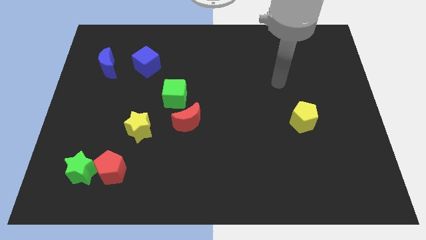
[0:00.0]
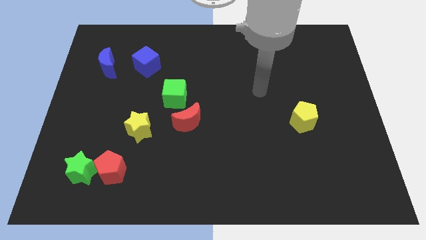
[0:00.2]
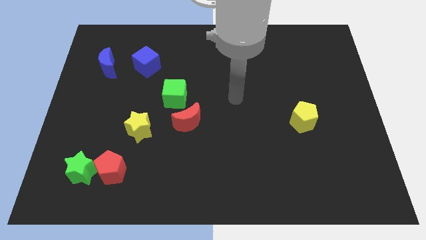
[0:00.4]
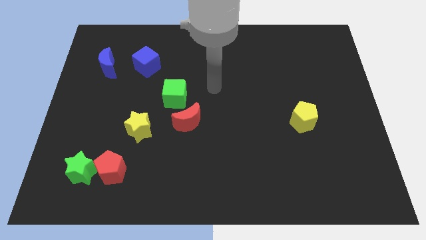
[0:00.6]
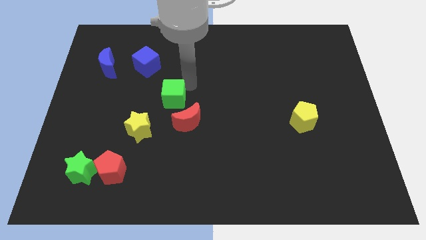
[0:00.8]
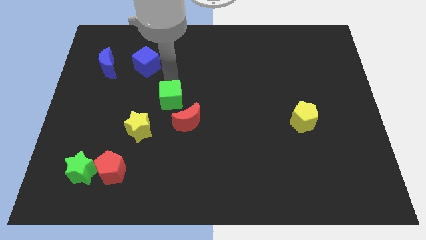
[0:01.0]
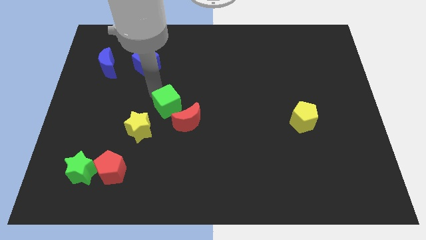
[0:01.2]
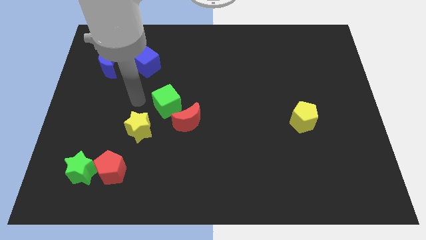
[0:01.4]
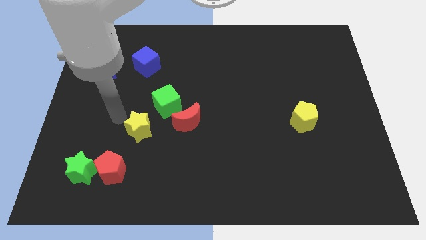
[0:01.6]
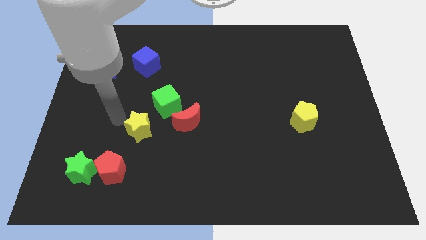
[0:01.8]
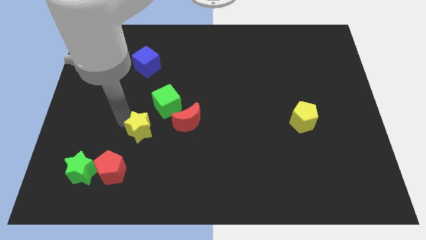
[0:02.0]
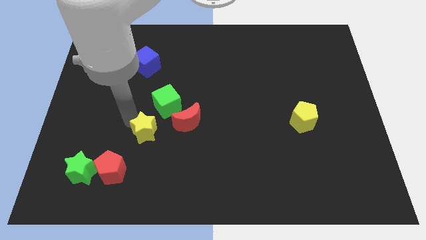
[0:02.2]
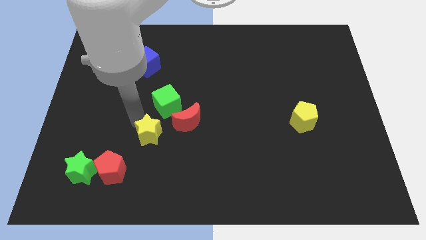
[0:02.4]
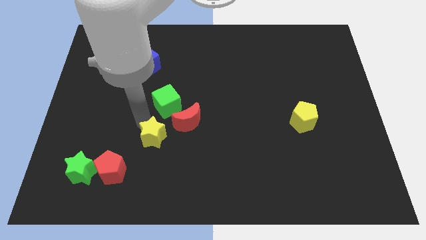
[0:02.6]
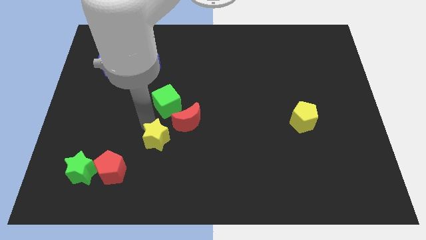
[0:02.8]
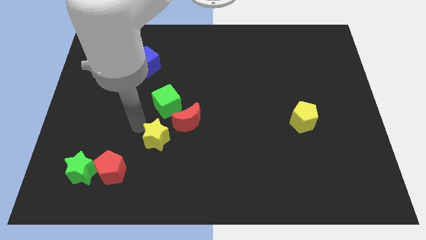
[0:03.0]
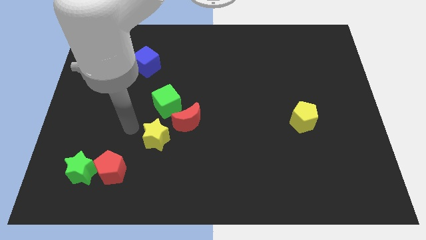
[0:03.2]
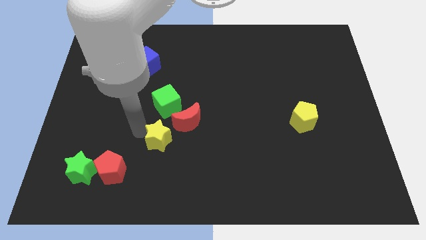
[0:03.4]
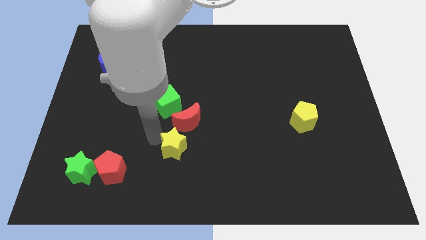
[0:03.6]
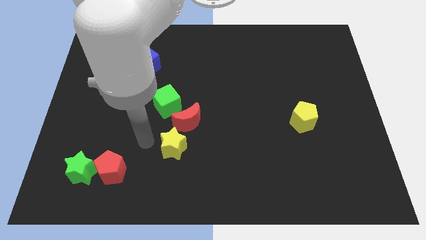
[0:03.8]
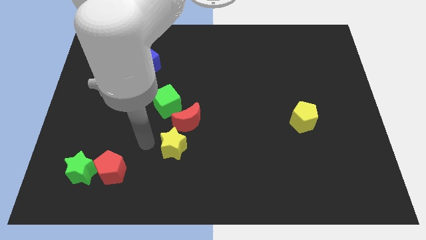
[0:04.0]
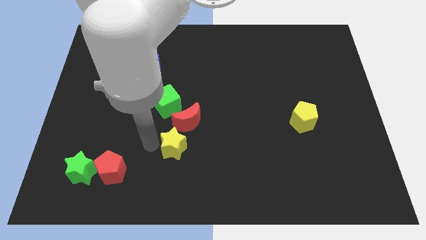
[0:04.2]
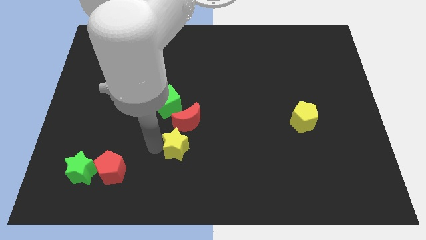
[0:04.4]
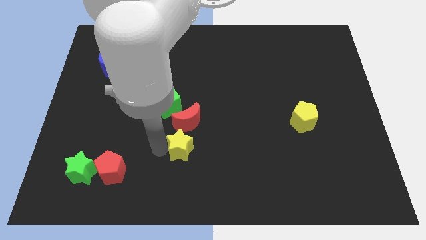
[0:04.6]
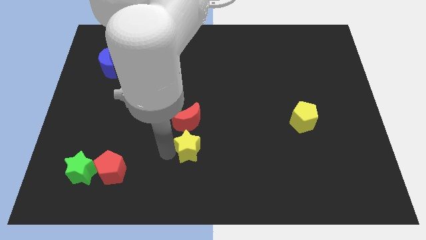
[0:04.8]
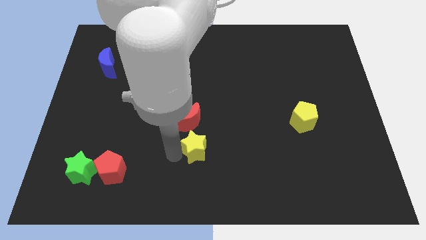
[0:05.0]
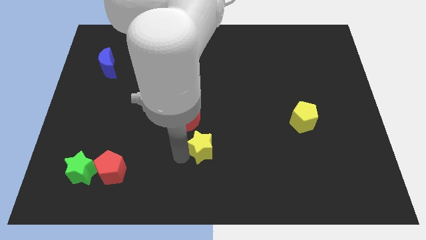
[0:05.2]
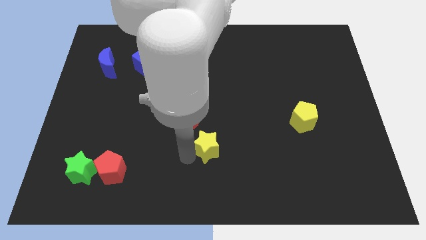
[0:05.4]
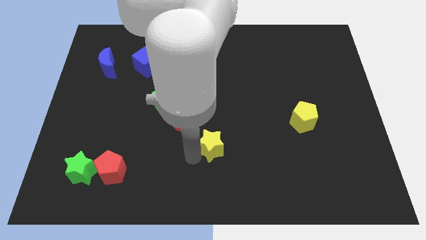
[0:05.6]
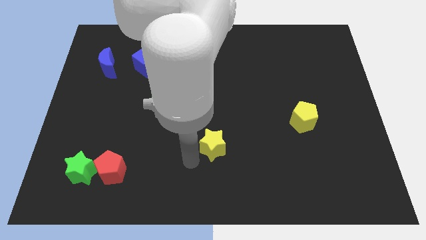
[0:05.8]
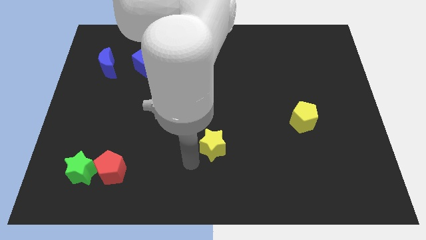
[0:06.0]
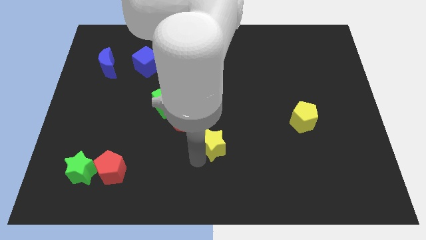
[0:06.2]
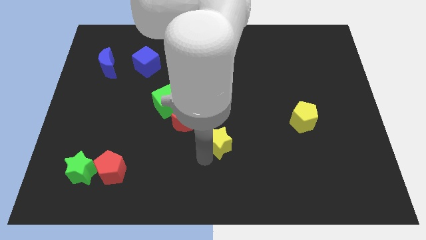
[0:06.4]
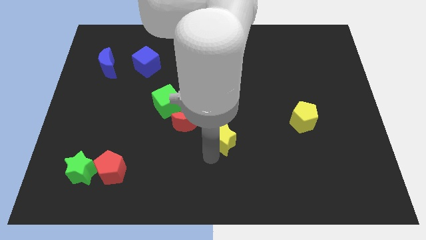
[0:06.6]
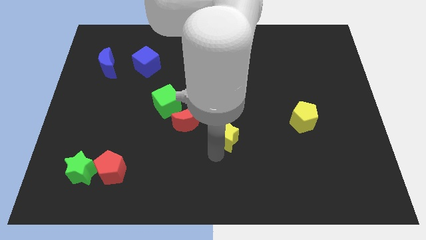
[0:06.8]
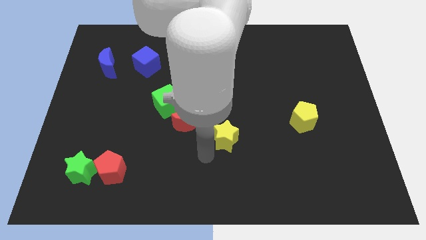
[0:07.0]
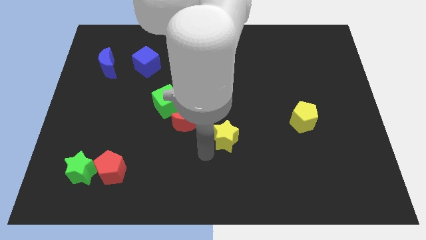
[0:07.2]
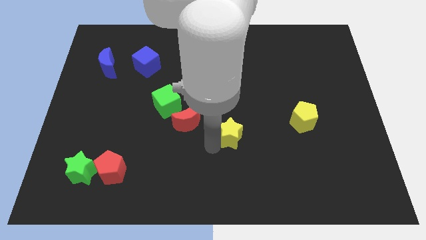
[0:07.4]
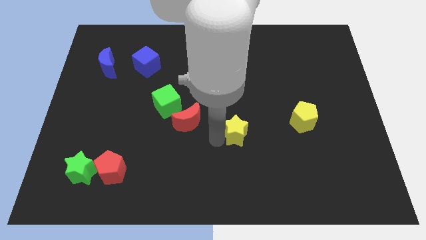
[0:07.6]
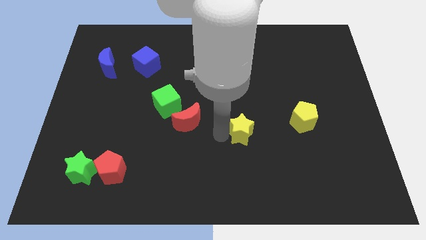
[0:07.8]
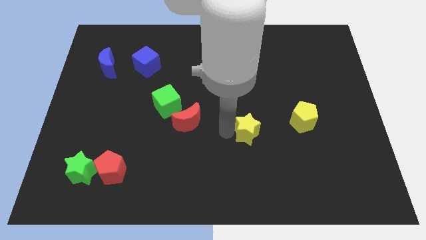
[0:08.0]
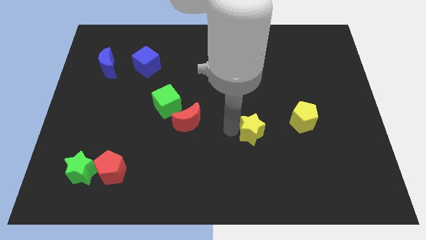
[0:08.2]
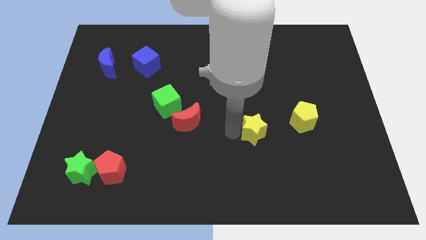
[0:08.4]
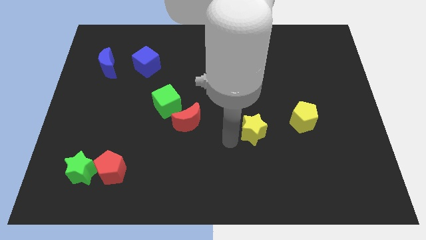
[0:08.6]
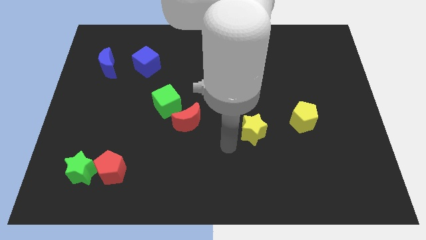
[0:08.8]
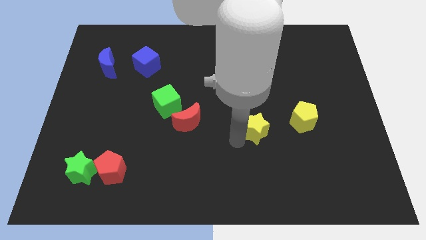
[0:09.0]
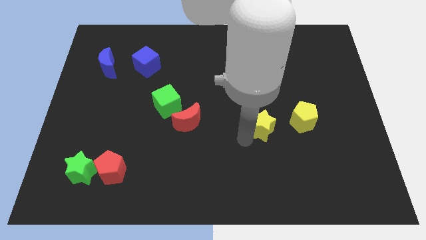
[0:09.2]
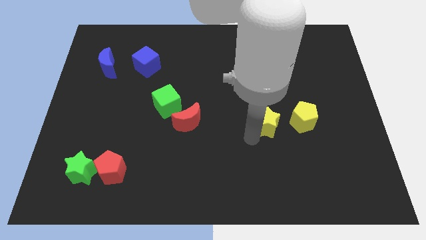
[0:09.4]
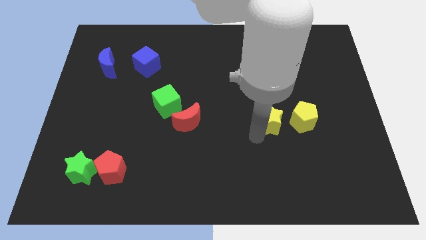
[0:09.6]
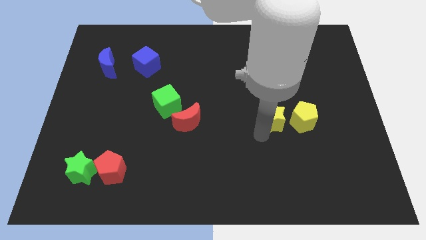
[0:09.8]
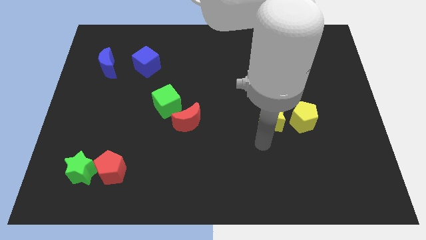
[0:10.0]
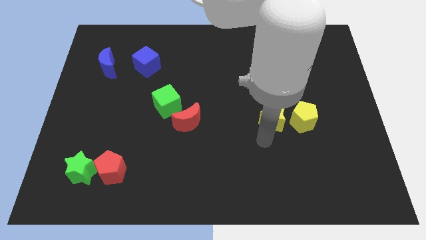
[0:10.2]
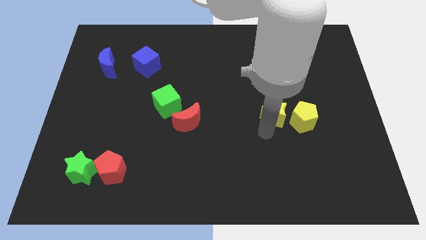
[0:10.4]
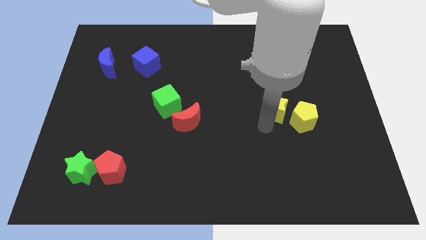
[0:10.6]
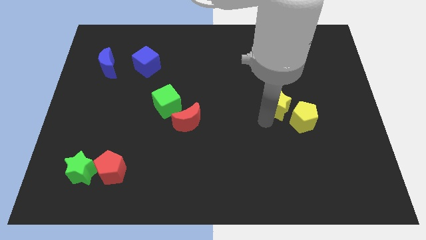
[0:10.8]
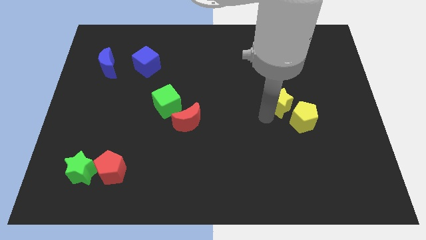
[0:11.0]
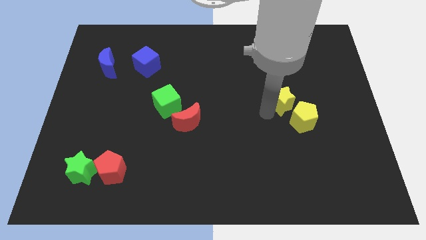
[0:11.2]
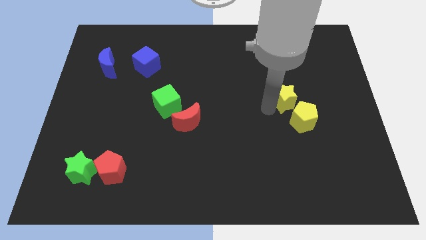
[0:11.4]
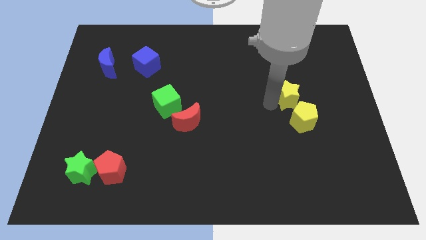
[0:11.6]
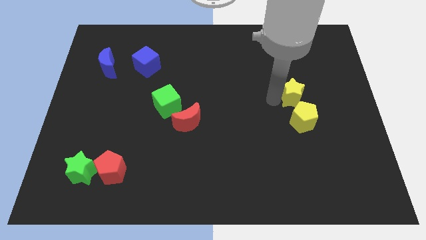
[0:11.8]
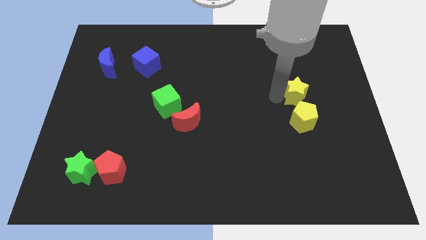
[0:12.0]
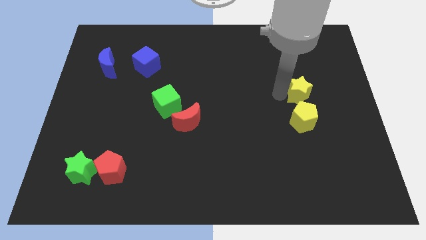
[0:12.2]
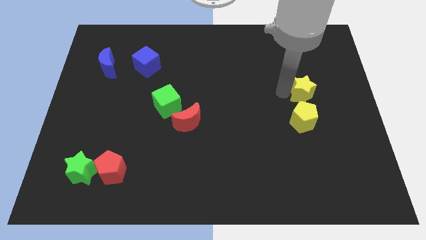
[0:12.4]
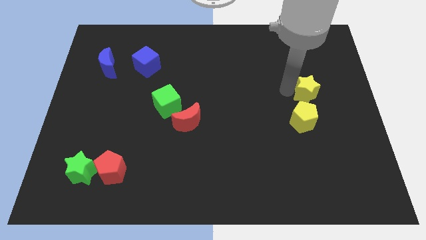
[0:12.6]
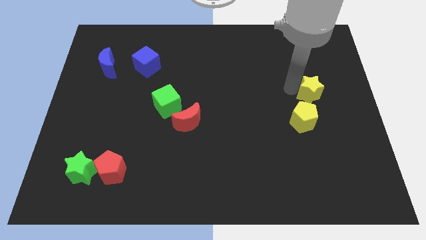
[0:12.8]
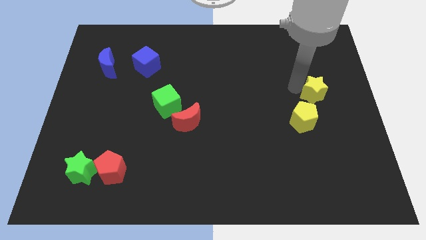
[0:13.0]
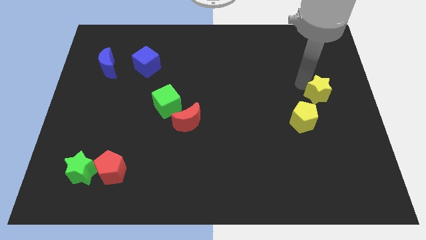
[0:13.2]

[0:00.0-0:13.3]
put the yellow star to the right side of the board
